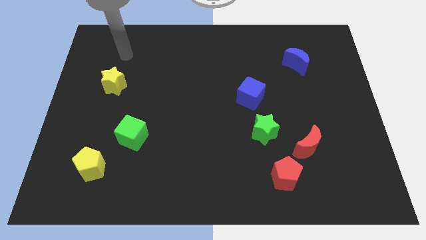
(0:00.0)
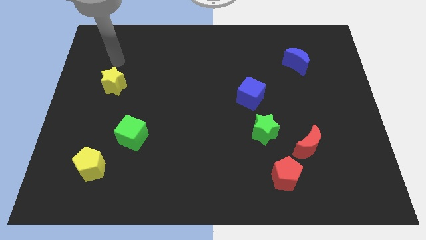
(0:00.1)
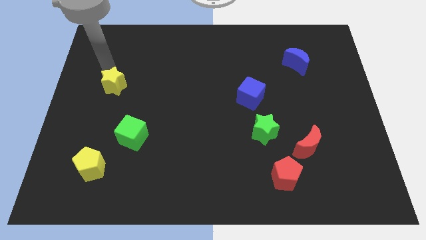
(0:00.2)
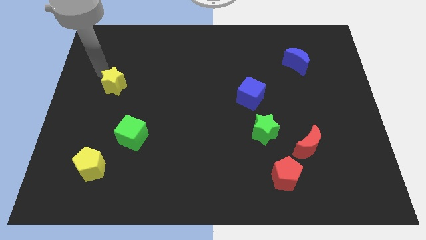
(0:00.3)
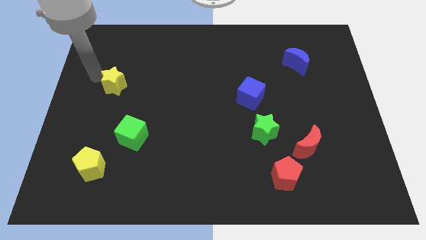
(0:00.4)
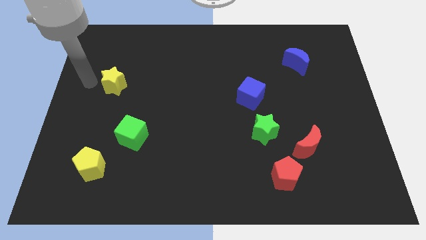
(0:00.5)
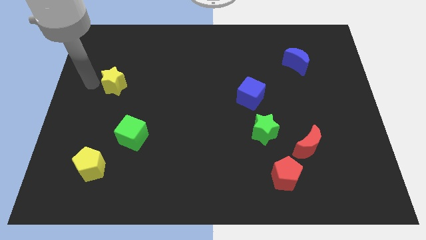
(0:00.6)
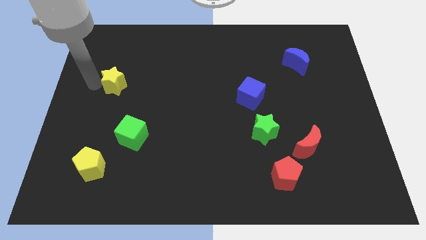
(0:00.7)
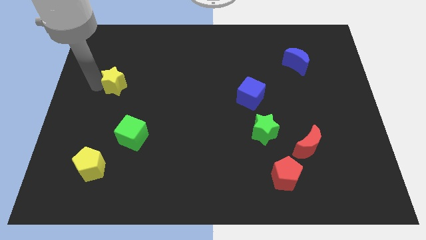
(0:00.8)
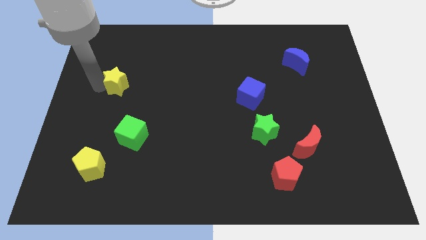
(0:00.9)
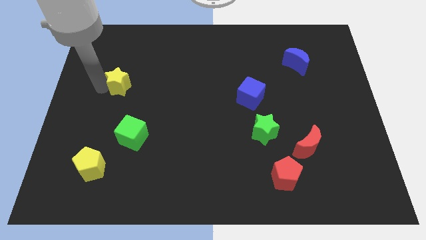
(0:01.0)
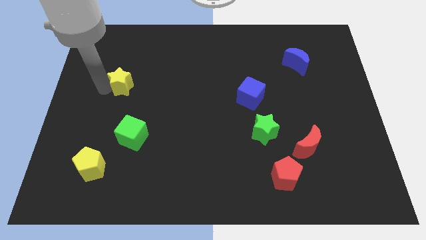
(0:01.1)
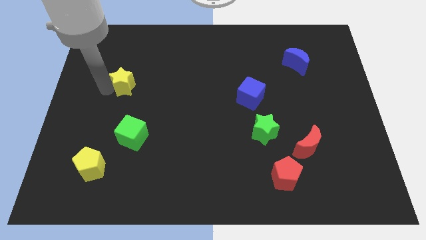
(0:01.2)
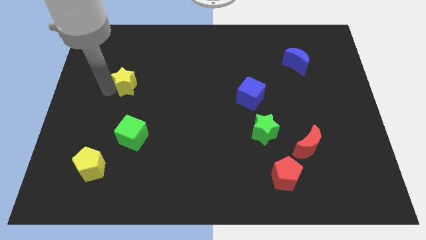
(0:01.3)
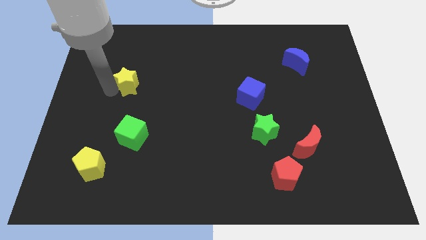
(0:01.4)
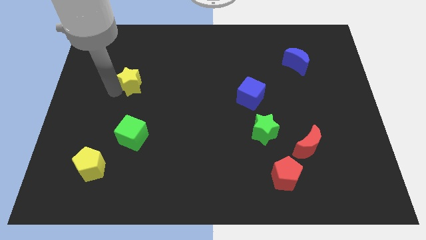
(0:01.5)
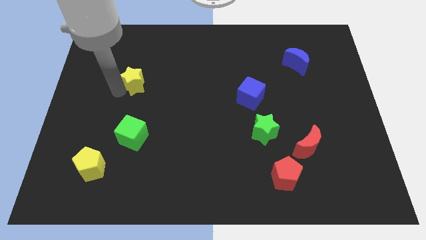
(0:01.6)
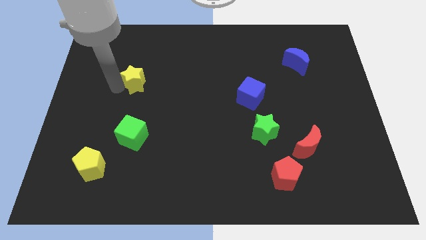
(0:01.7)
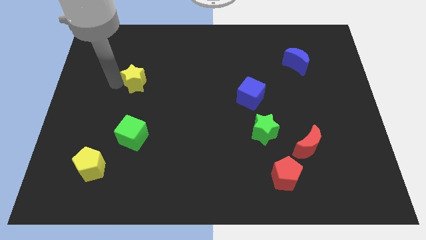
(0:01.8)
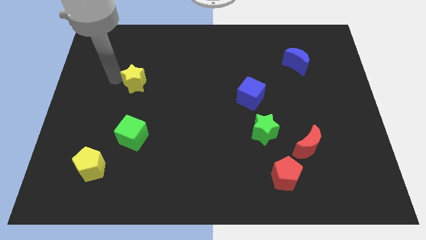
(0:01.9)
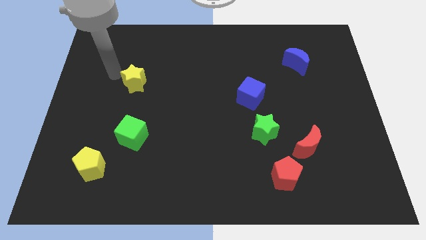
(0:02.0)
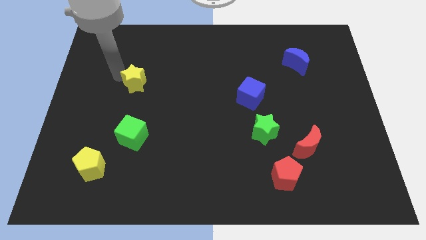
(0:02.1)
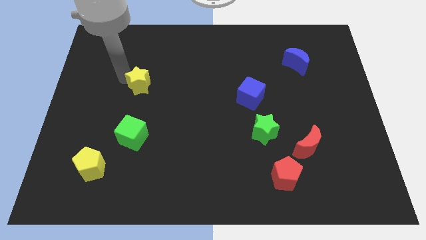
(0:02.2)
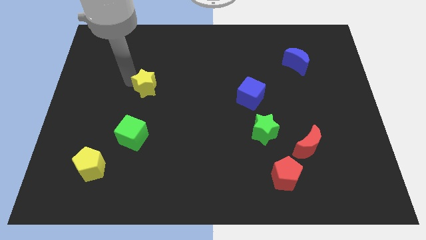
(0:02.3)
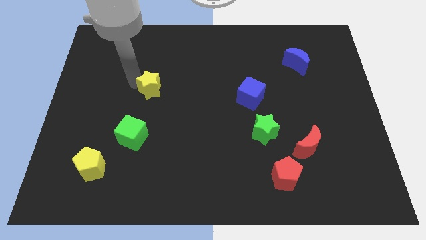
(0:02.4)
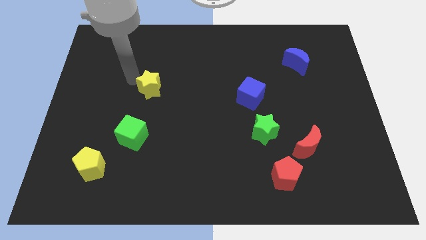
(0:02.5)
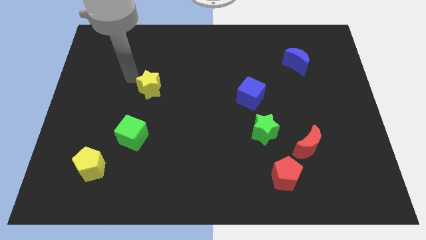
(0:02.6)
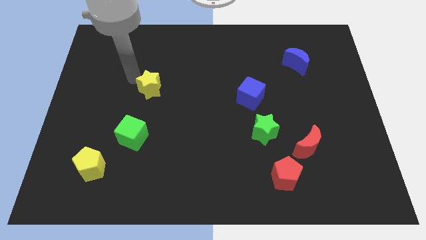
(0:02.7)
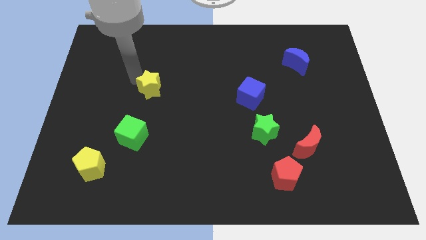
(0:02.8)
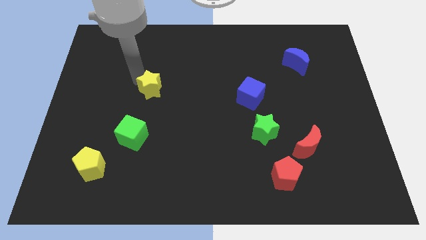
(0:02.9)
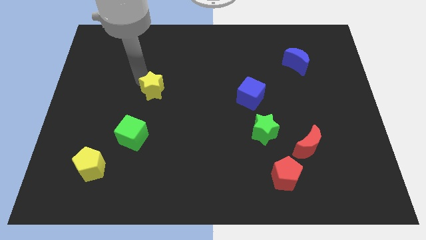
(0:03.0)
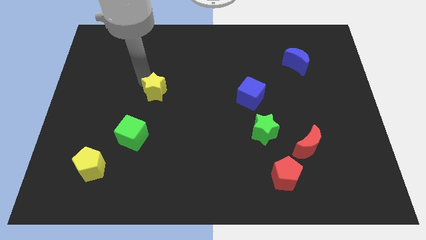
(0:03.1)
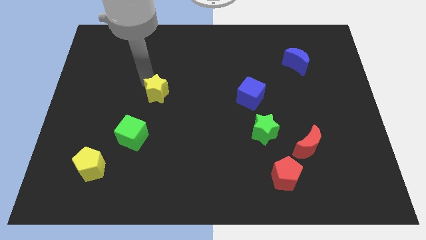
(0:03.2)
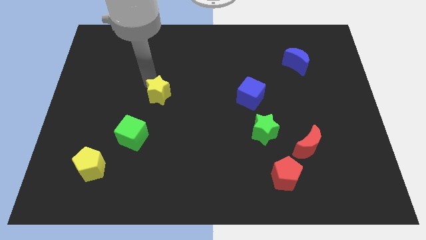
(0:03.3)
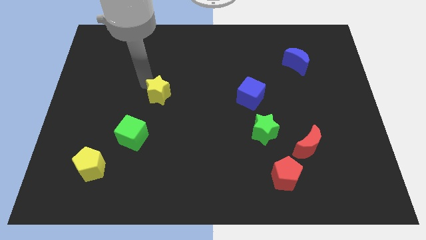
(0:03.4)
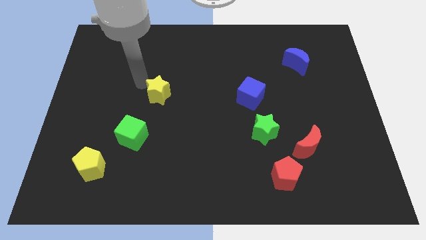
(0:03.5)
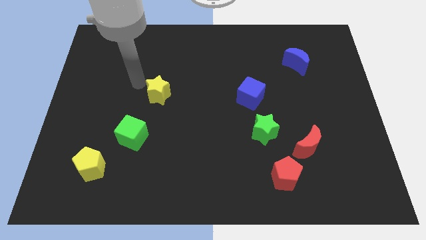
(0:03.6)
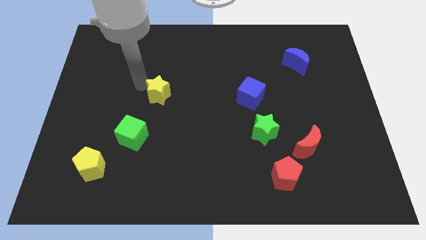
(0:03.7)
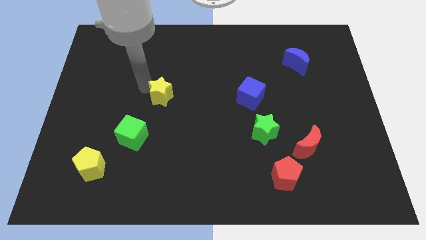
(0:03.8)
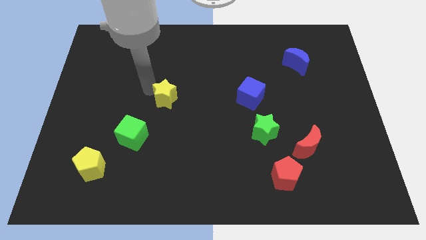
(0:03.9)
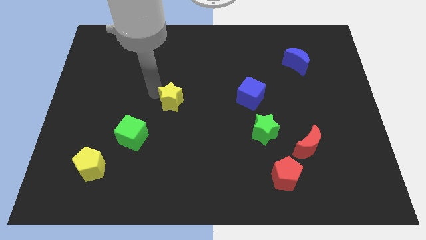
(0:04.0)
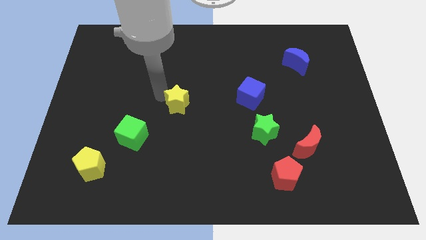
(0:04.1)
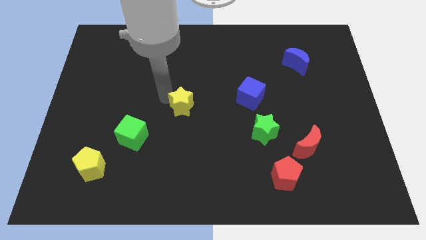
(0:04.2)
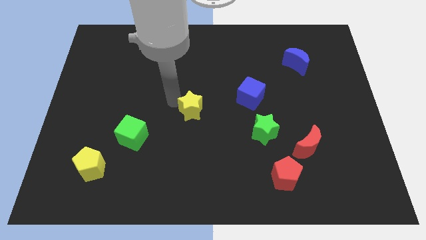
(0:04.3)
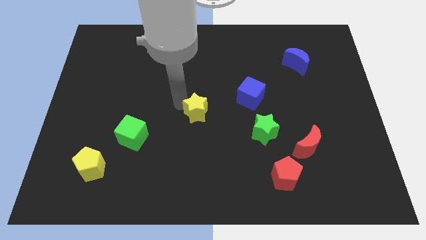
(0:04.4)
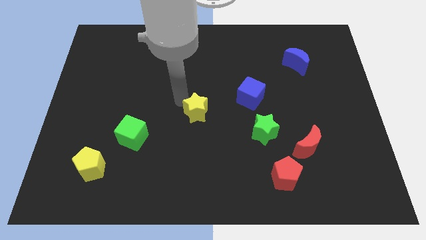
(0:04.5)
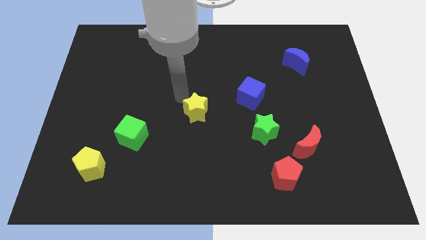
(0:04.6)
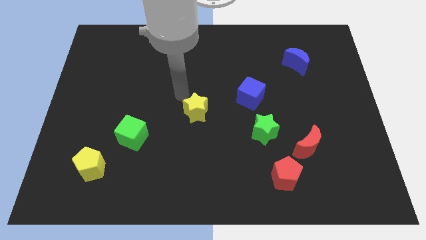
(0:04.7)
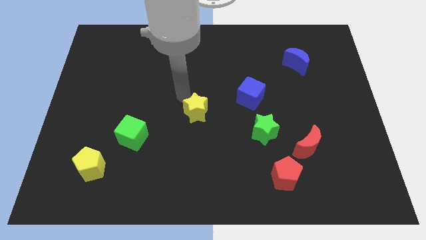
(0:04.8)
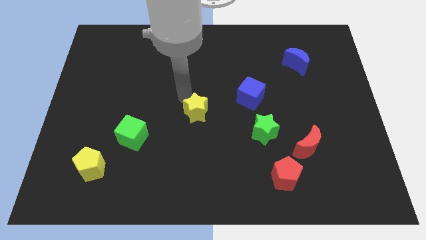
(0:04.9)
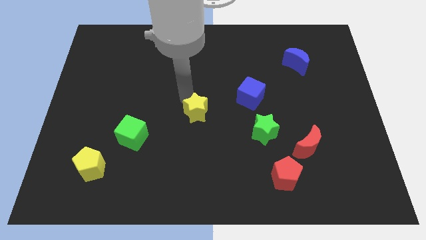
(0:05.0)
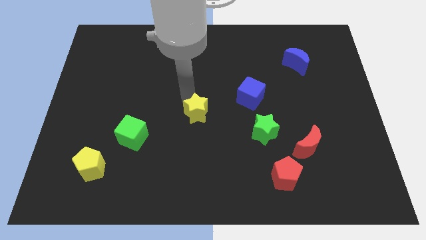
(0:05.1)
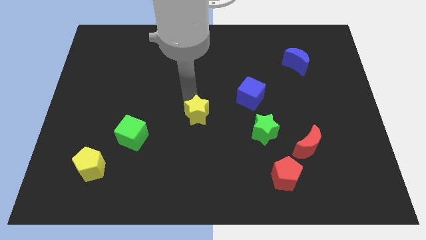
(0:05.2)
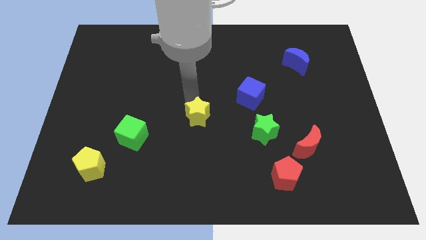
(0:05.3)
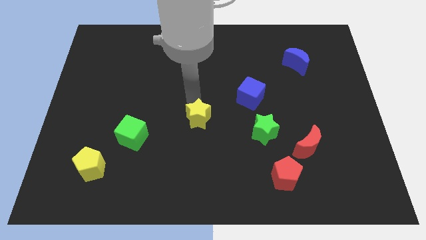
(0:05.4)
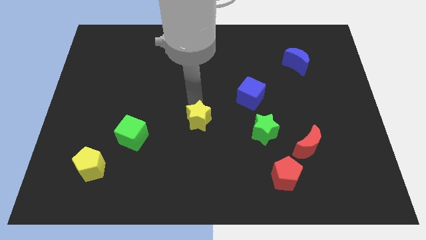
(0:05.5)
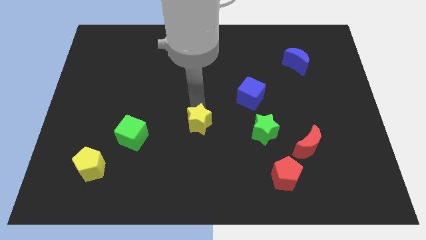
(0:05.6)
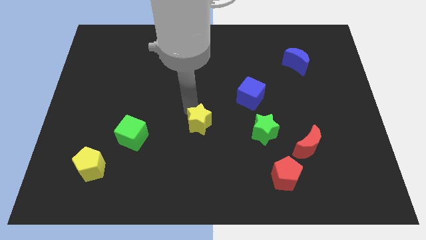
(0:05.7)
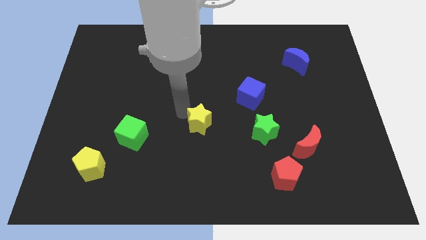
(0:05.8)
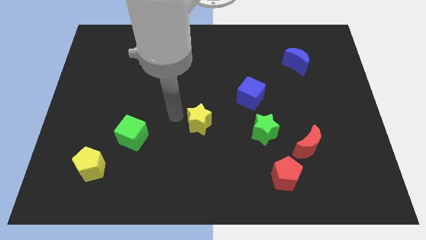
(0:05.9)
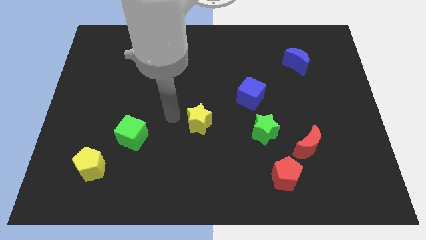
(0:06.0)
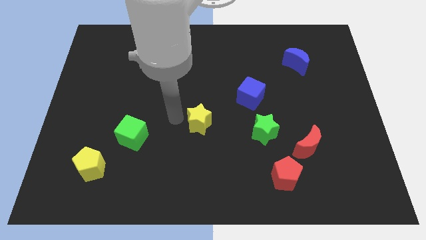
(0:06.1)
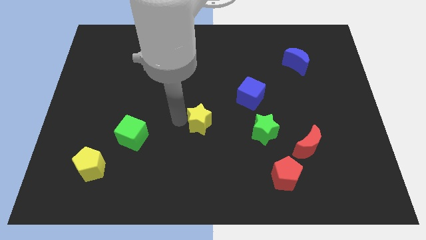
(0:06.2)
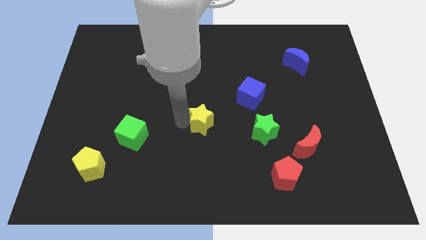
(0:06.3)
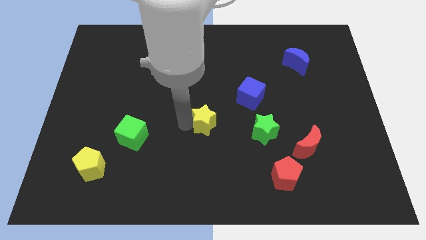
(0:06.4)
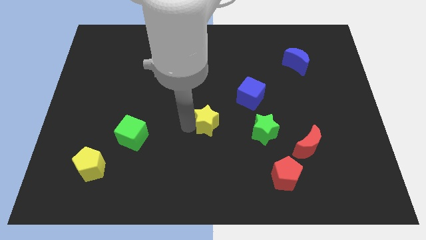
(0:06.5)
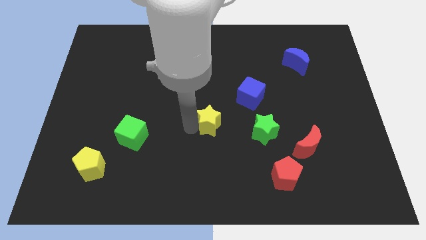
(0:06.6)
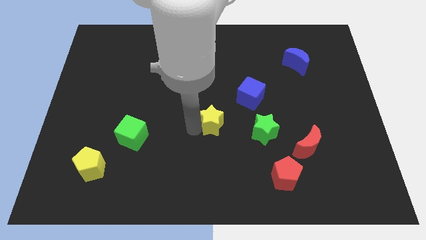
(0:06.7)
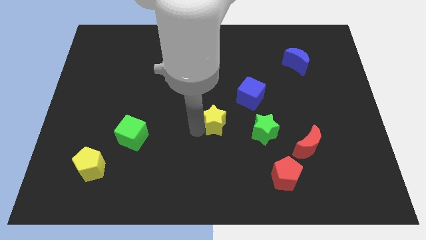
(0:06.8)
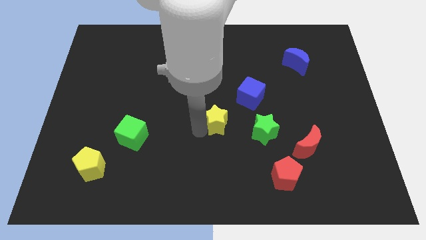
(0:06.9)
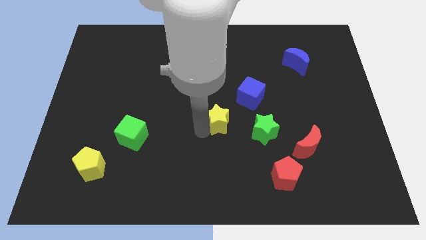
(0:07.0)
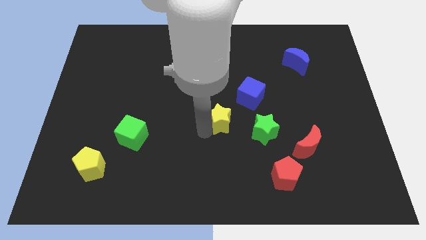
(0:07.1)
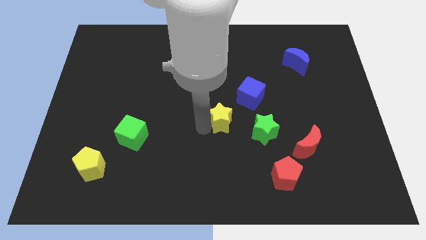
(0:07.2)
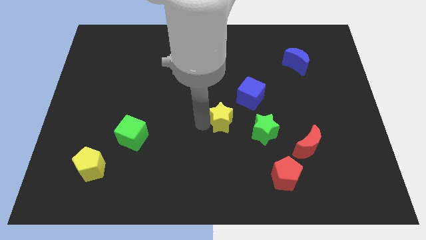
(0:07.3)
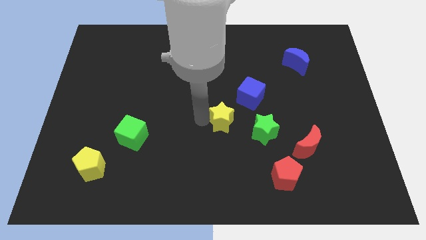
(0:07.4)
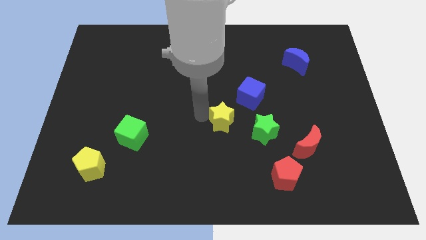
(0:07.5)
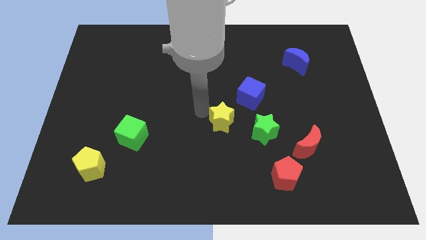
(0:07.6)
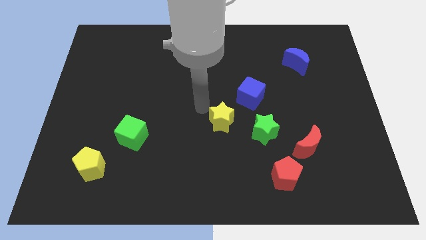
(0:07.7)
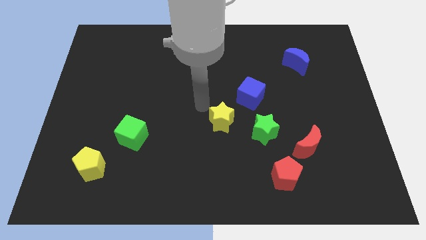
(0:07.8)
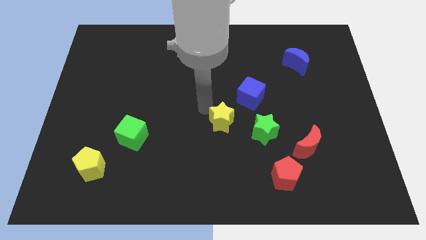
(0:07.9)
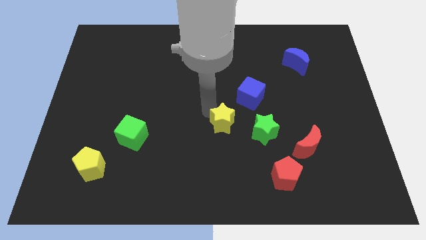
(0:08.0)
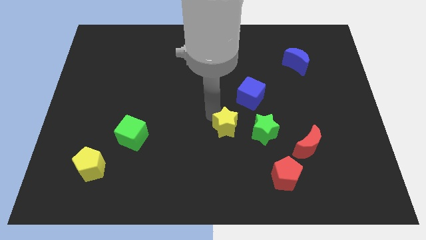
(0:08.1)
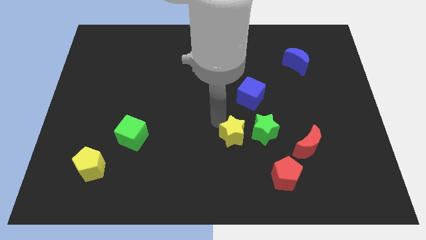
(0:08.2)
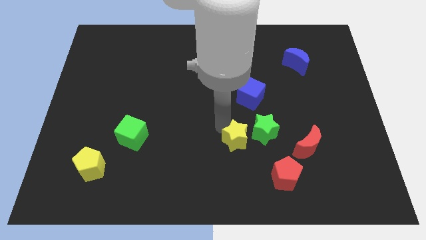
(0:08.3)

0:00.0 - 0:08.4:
push the yellow star just left of the red moon
